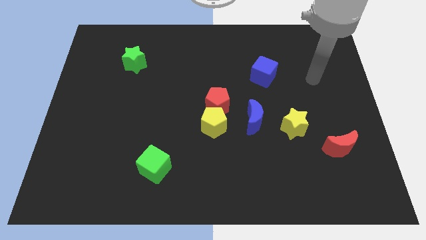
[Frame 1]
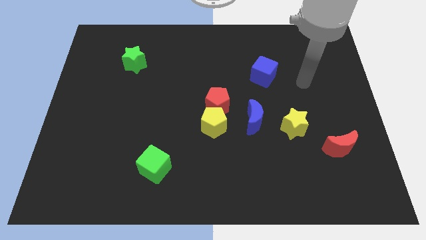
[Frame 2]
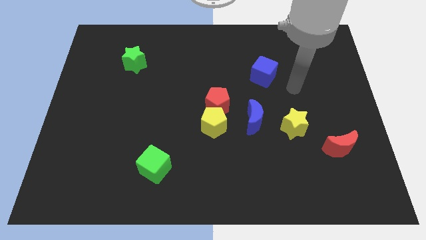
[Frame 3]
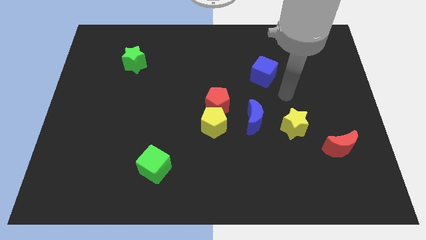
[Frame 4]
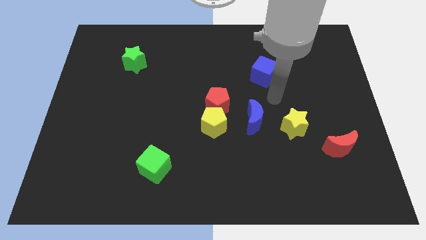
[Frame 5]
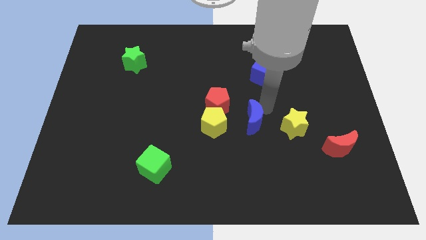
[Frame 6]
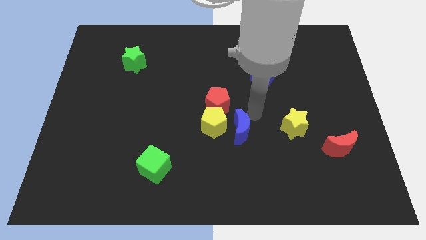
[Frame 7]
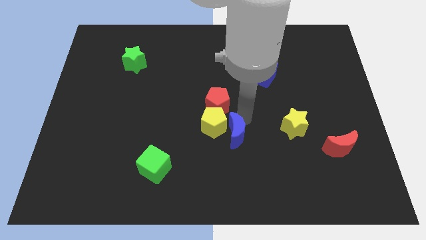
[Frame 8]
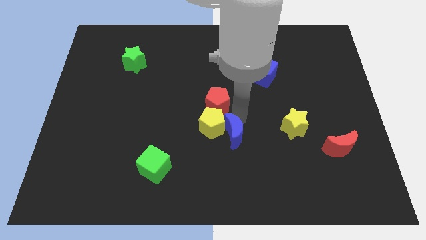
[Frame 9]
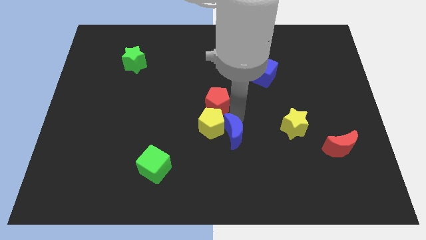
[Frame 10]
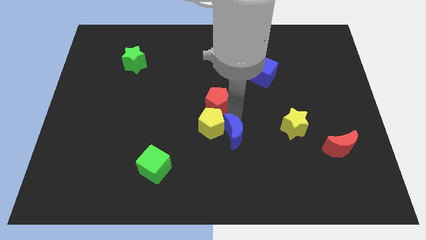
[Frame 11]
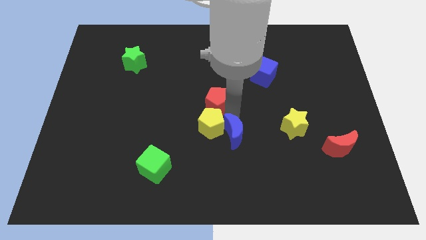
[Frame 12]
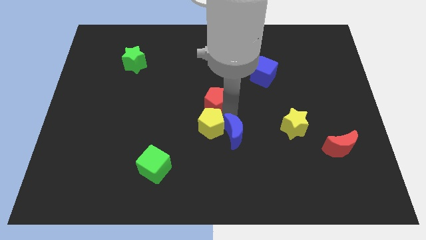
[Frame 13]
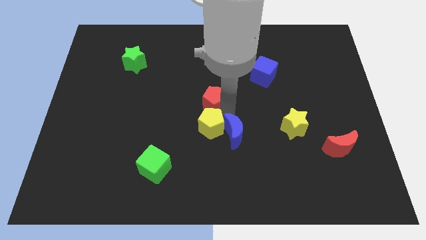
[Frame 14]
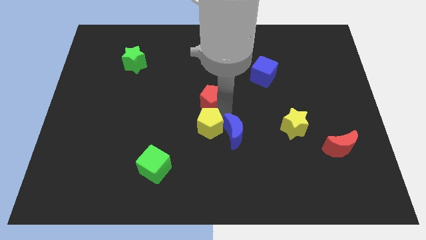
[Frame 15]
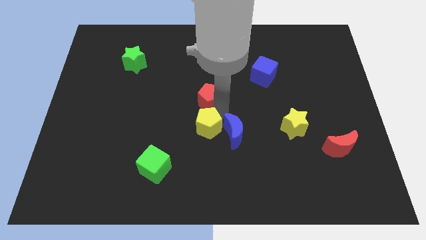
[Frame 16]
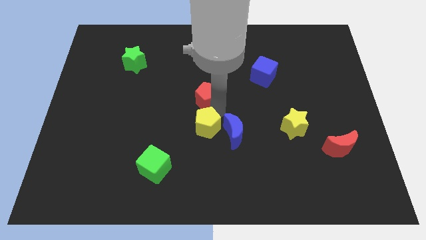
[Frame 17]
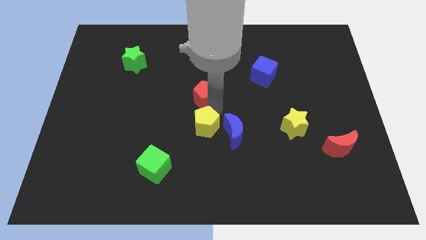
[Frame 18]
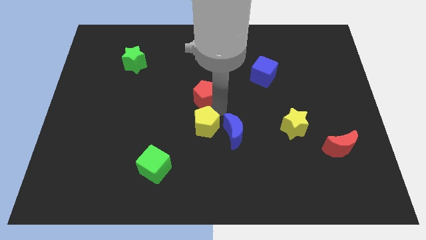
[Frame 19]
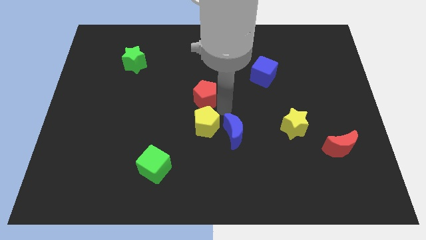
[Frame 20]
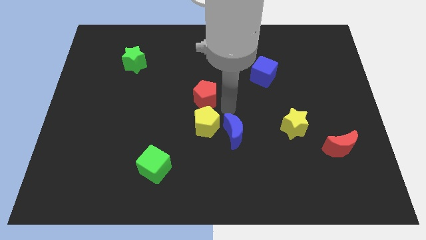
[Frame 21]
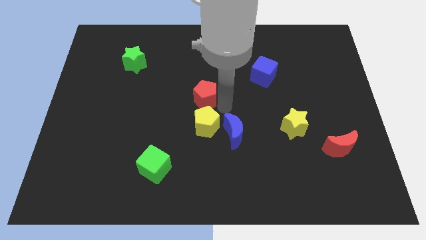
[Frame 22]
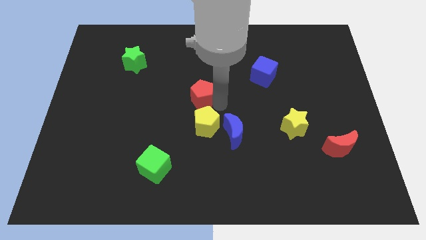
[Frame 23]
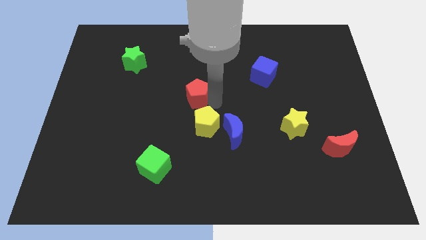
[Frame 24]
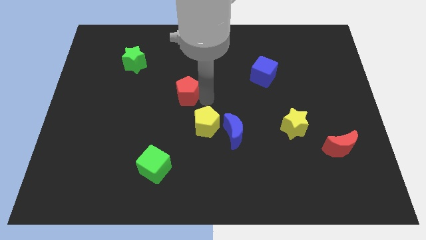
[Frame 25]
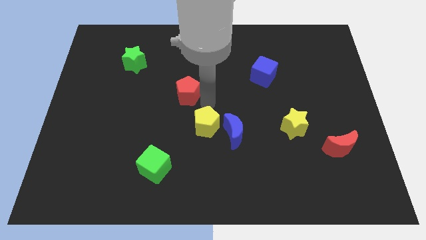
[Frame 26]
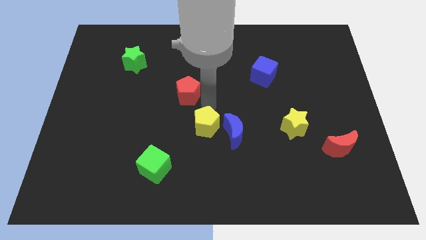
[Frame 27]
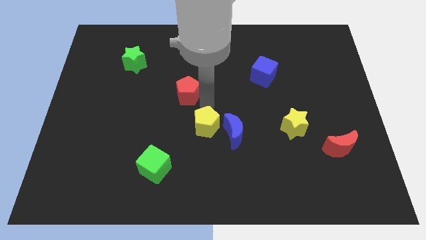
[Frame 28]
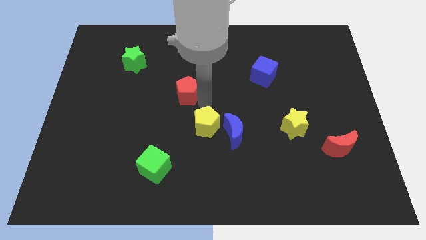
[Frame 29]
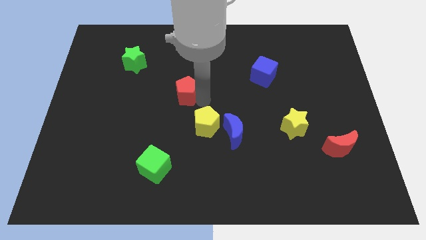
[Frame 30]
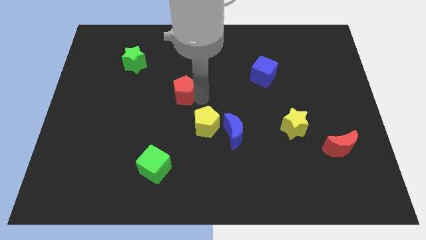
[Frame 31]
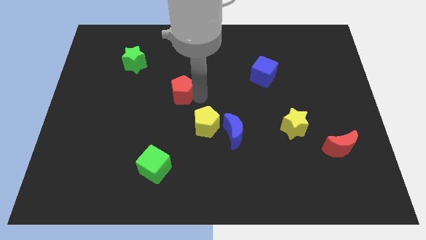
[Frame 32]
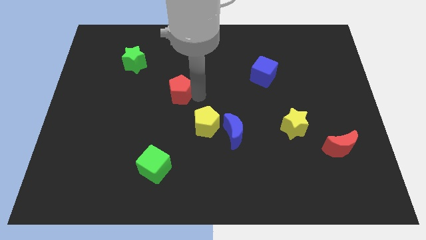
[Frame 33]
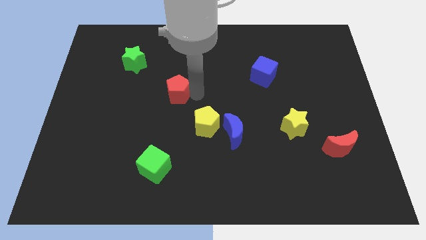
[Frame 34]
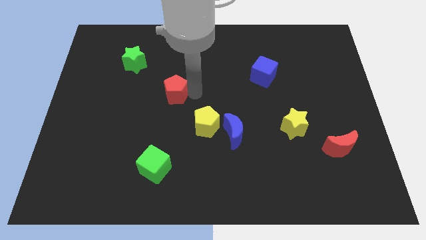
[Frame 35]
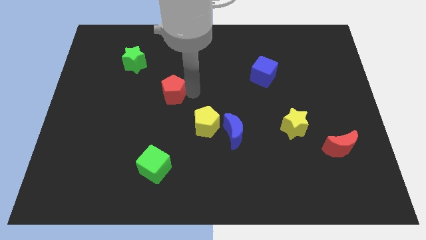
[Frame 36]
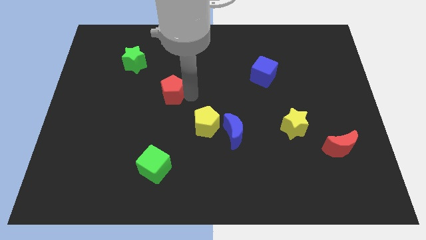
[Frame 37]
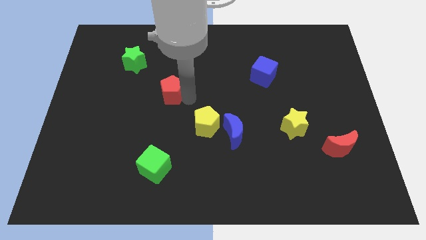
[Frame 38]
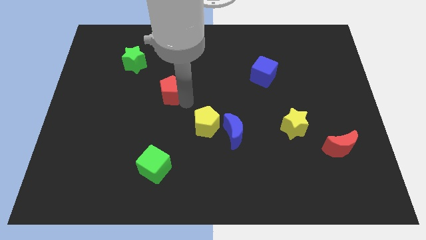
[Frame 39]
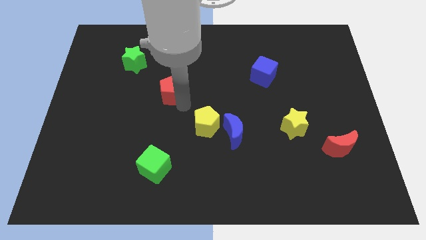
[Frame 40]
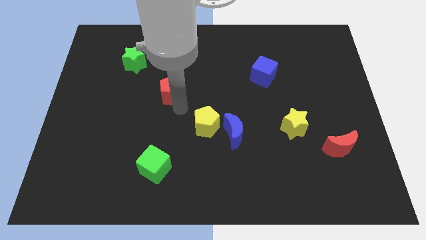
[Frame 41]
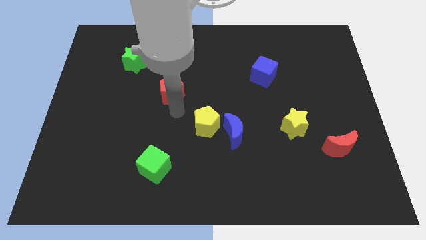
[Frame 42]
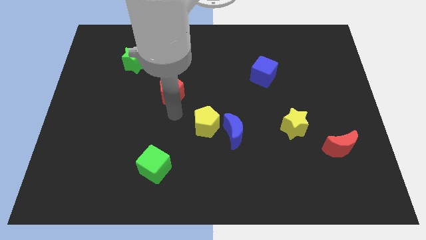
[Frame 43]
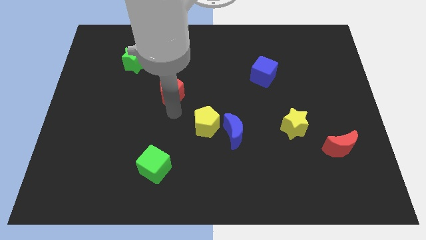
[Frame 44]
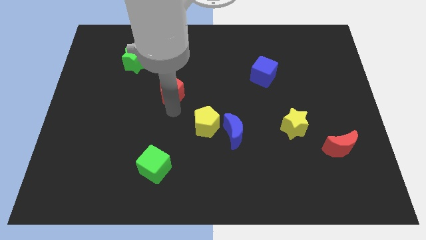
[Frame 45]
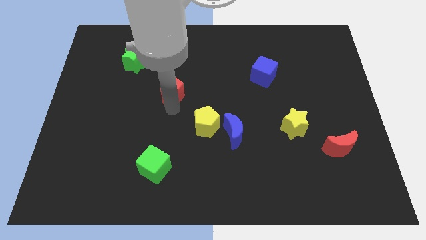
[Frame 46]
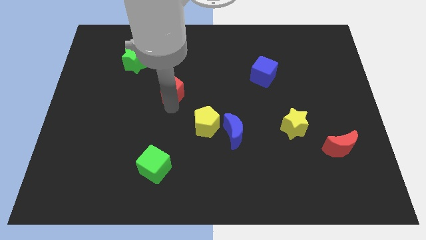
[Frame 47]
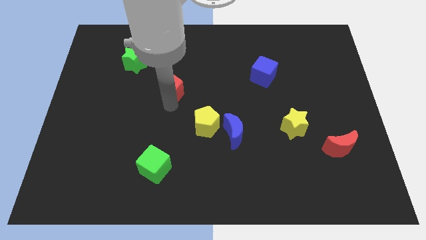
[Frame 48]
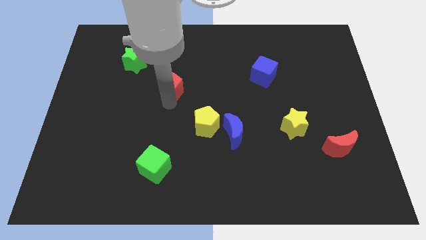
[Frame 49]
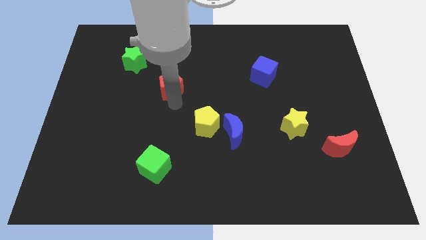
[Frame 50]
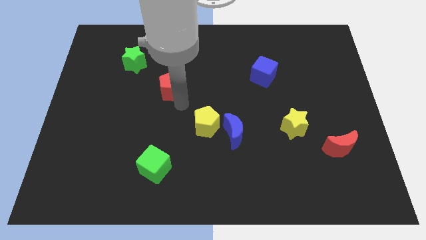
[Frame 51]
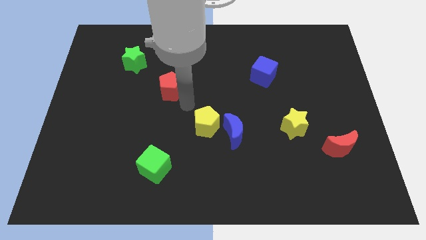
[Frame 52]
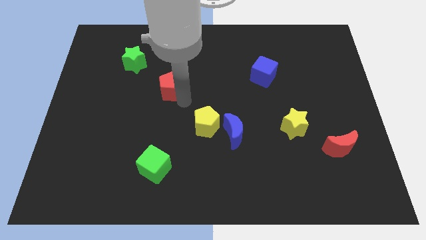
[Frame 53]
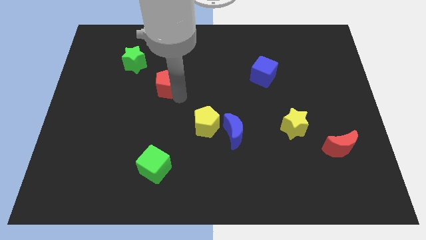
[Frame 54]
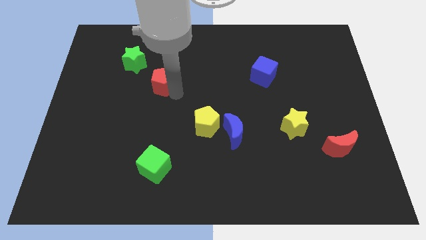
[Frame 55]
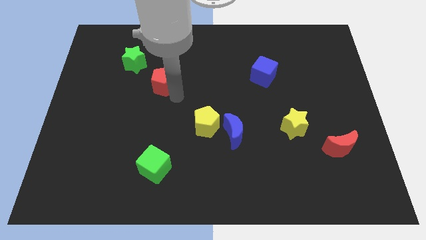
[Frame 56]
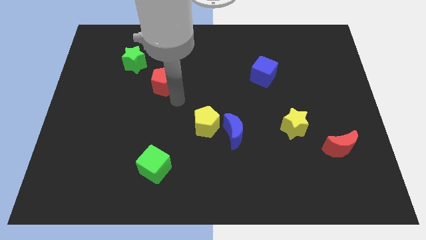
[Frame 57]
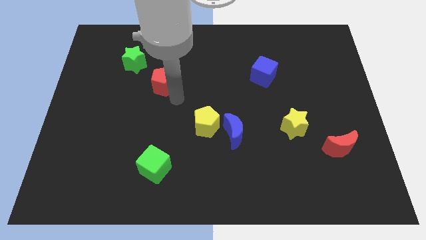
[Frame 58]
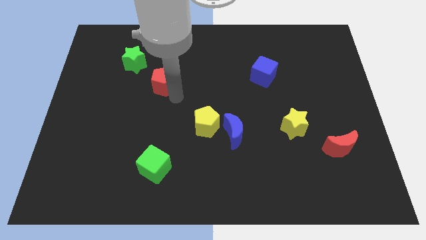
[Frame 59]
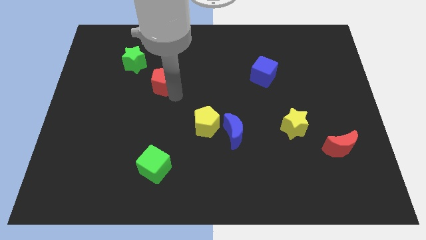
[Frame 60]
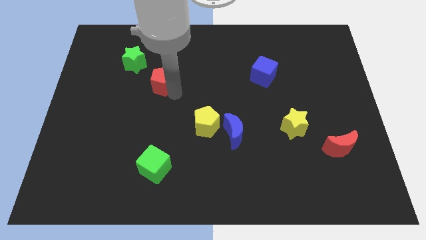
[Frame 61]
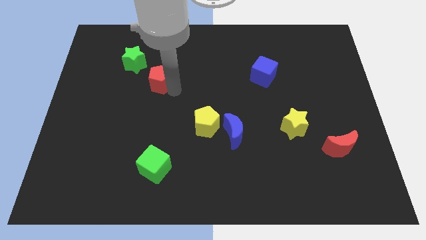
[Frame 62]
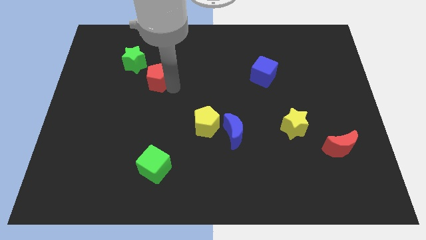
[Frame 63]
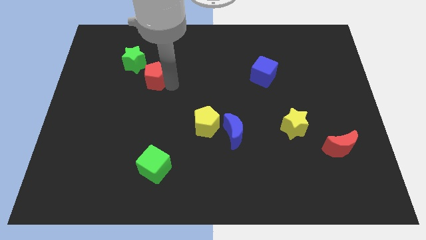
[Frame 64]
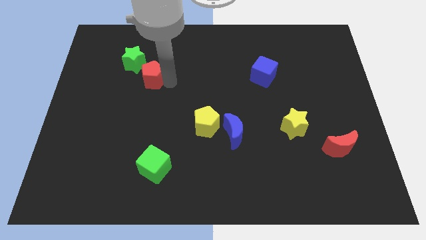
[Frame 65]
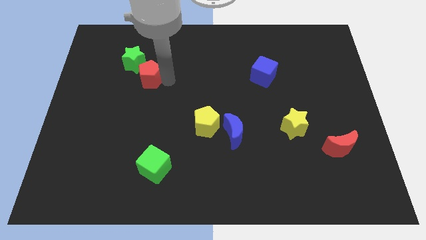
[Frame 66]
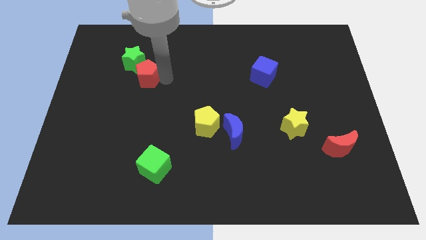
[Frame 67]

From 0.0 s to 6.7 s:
push the red pentagon to the green star

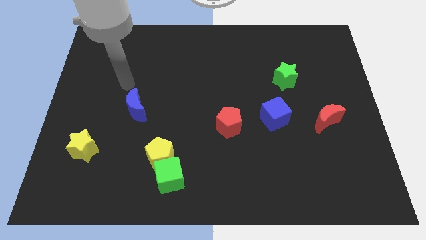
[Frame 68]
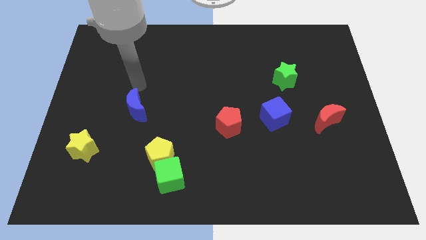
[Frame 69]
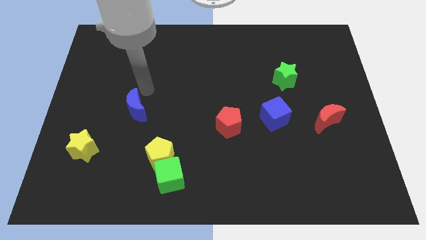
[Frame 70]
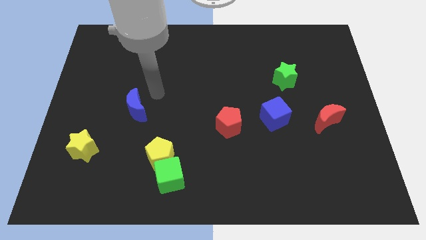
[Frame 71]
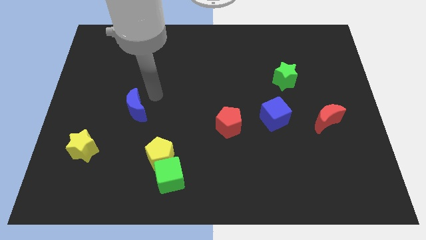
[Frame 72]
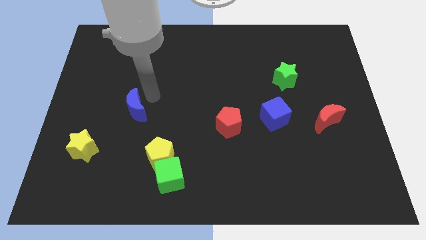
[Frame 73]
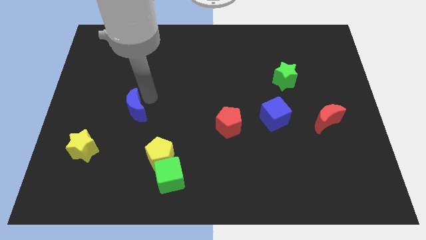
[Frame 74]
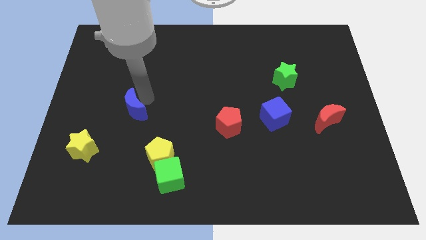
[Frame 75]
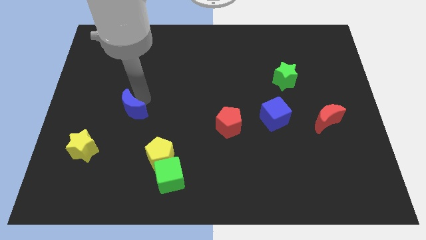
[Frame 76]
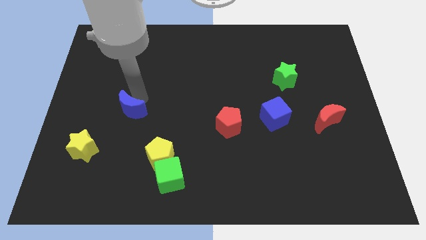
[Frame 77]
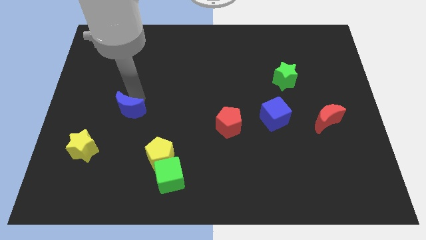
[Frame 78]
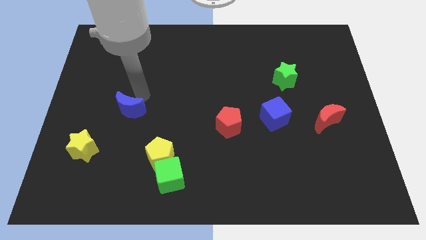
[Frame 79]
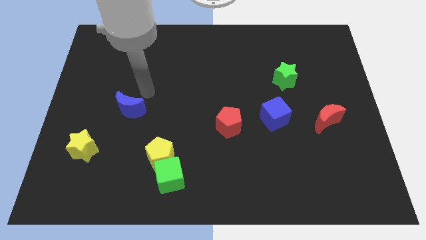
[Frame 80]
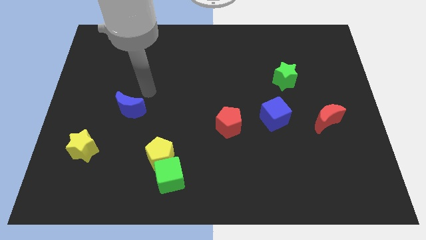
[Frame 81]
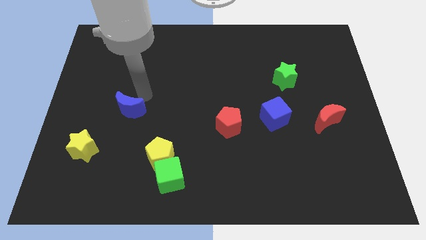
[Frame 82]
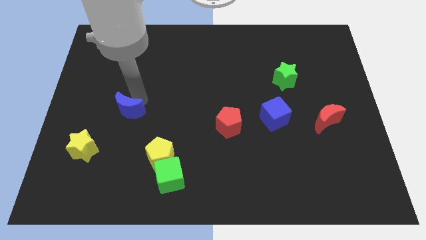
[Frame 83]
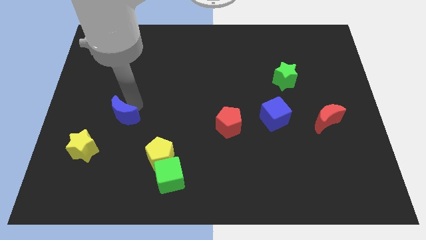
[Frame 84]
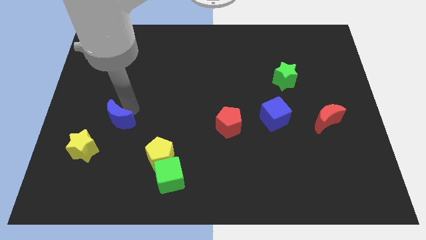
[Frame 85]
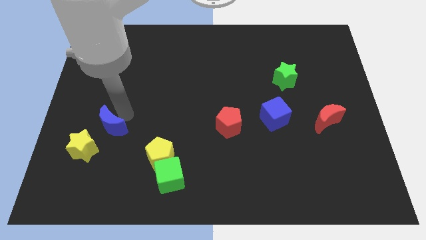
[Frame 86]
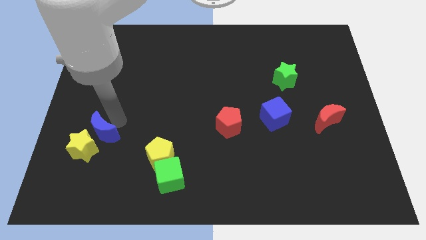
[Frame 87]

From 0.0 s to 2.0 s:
slide the blue moon close to the yellow star
